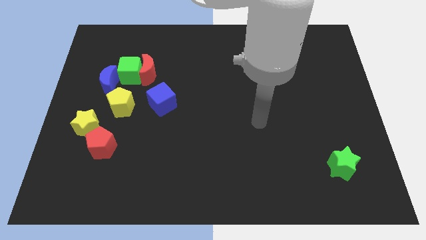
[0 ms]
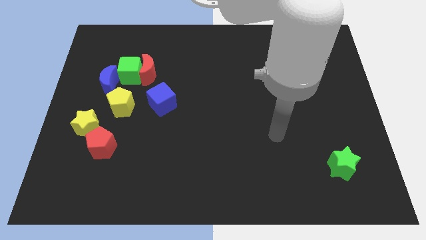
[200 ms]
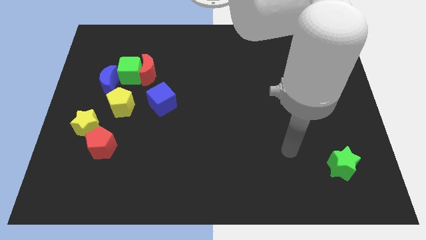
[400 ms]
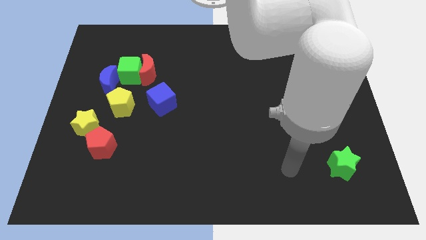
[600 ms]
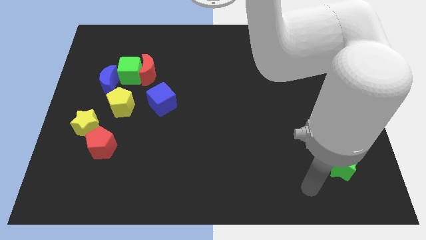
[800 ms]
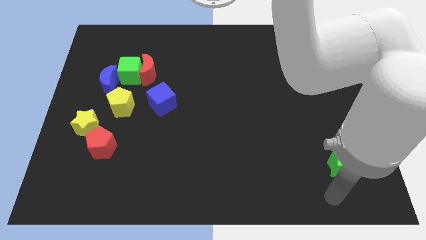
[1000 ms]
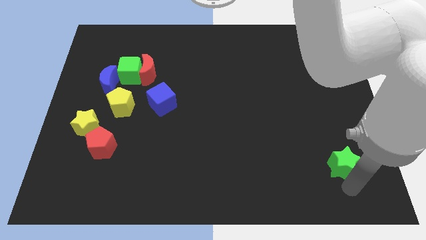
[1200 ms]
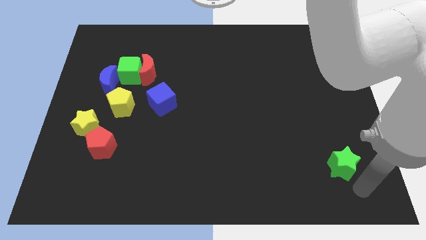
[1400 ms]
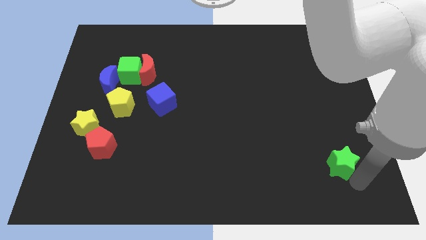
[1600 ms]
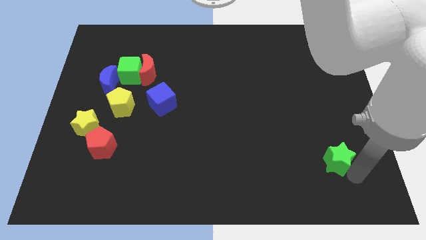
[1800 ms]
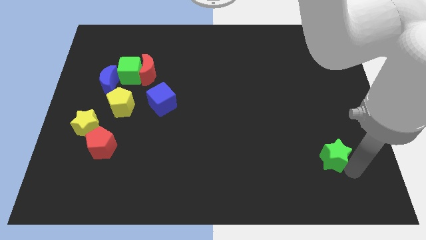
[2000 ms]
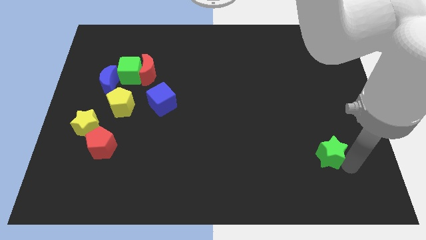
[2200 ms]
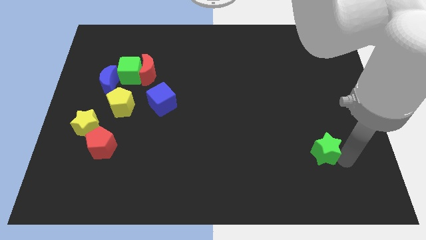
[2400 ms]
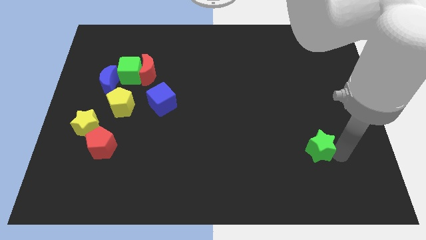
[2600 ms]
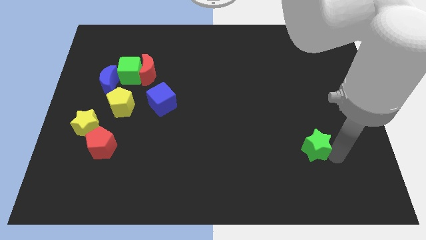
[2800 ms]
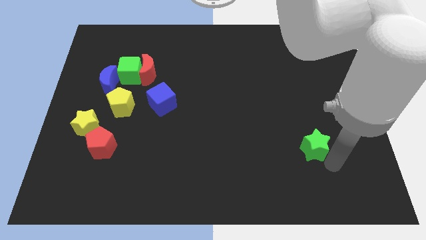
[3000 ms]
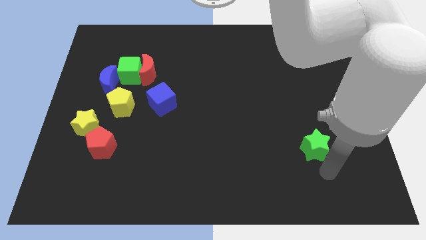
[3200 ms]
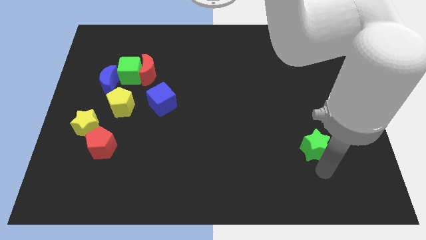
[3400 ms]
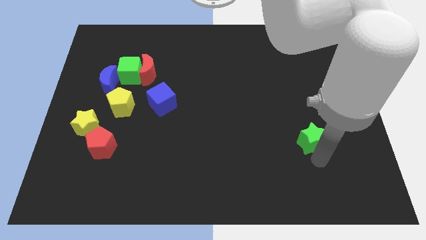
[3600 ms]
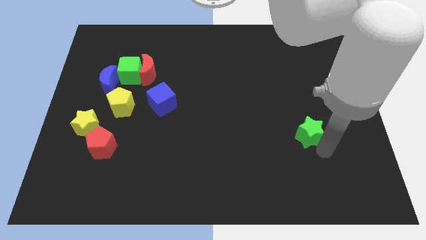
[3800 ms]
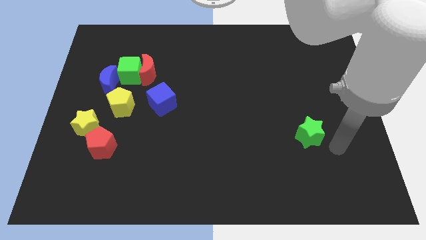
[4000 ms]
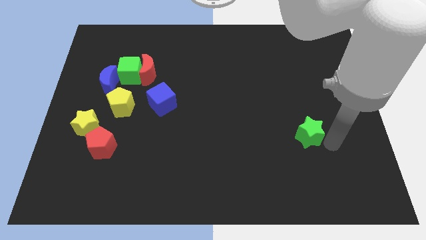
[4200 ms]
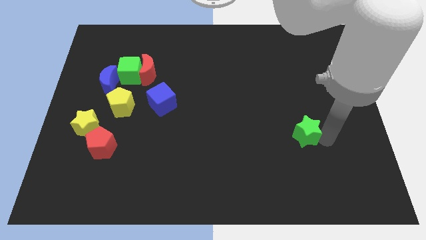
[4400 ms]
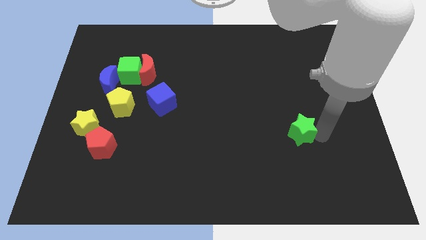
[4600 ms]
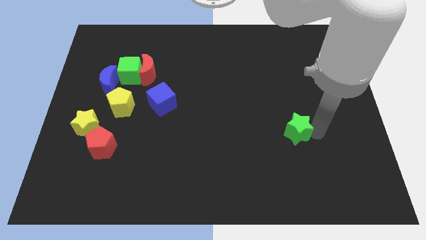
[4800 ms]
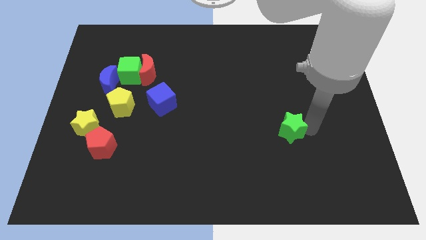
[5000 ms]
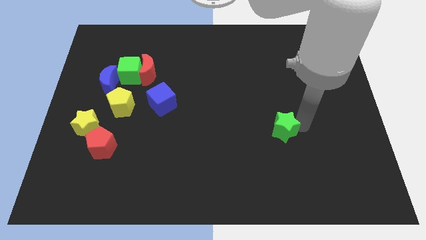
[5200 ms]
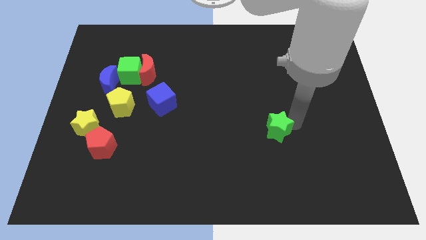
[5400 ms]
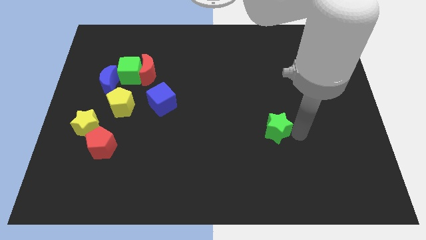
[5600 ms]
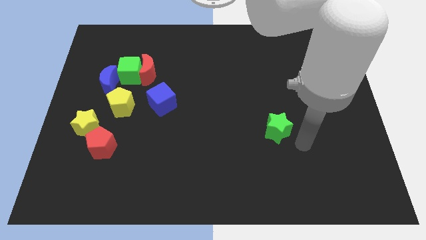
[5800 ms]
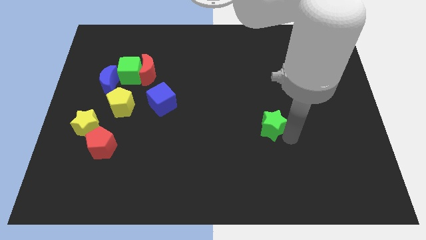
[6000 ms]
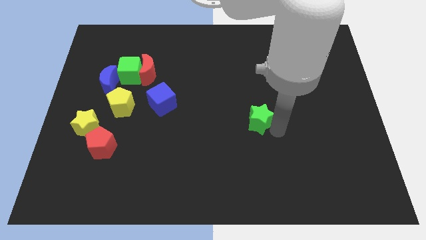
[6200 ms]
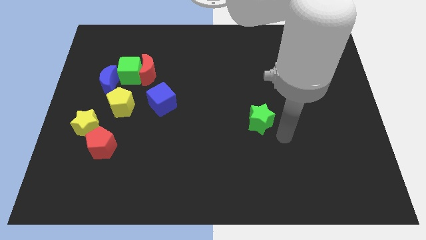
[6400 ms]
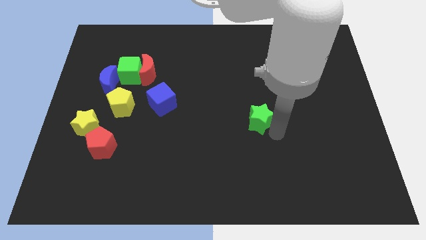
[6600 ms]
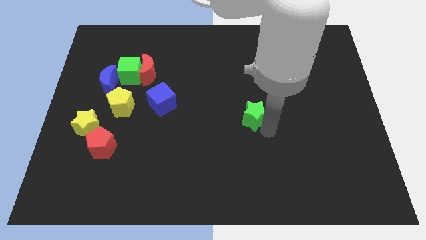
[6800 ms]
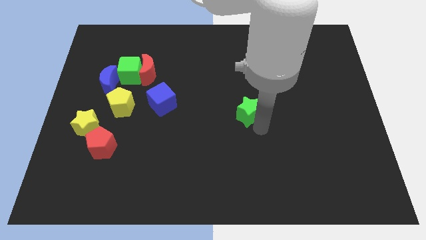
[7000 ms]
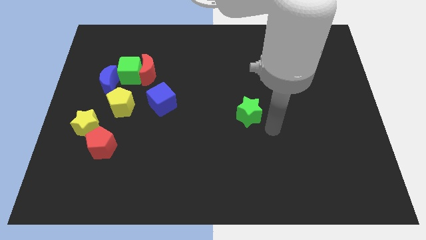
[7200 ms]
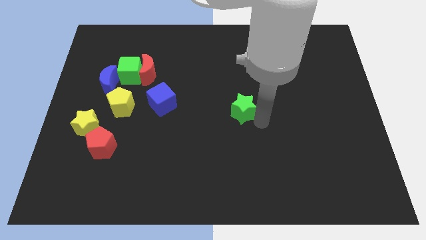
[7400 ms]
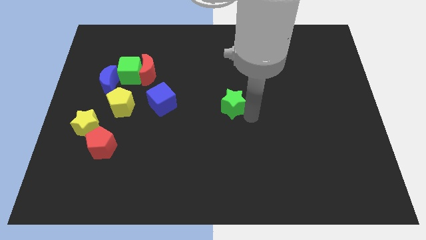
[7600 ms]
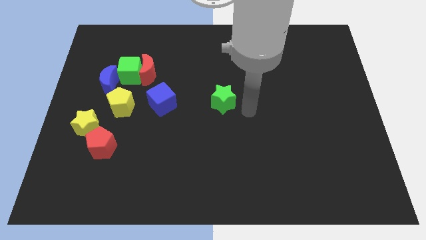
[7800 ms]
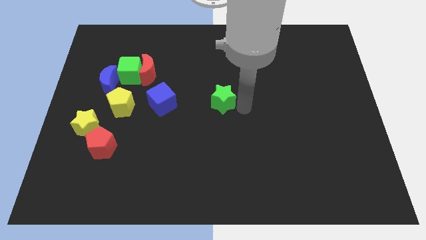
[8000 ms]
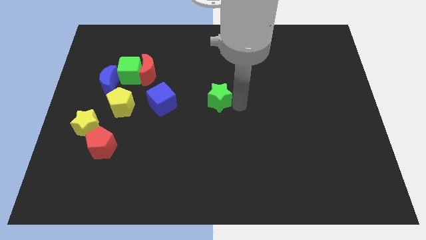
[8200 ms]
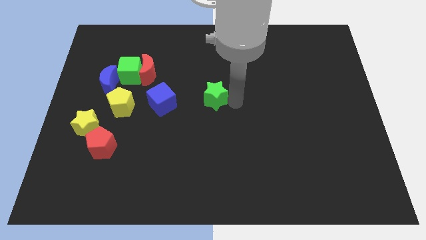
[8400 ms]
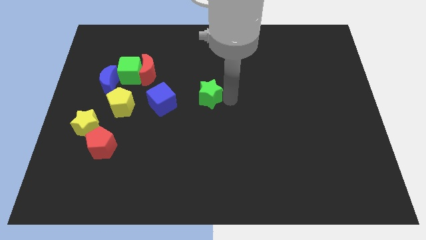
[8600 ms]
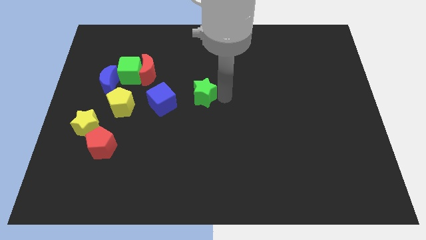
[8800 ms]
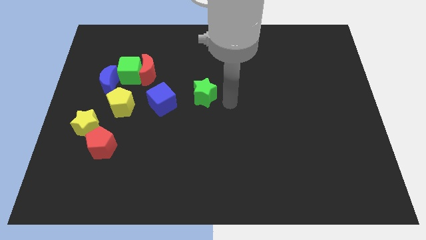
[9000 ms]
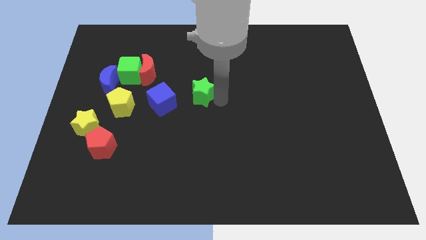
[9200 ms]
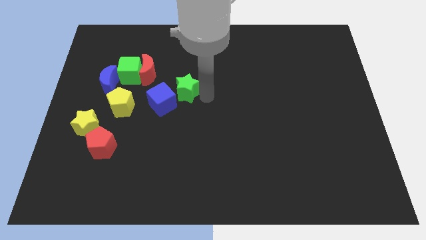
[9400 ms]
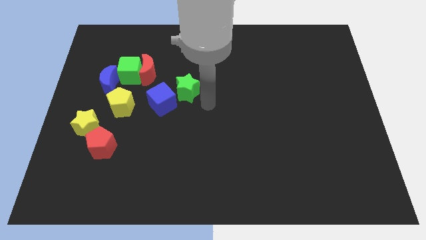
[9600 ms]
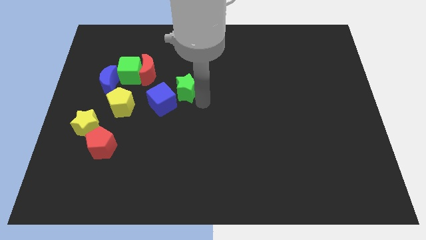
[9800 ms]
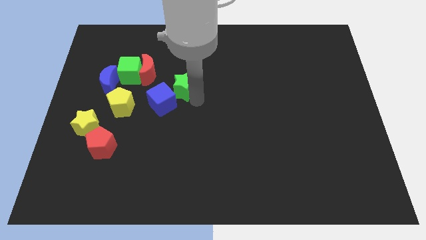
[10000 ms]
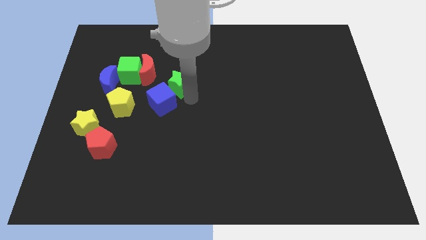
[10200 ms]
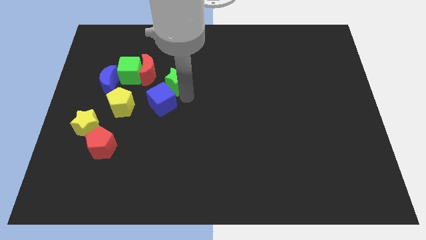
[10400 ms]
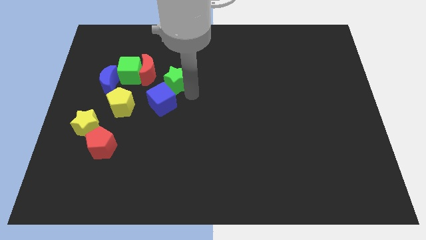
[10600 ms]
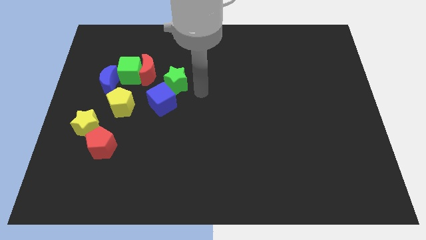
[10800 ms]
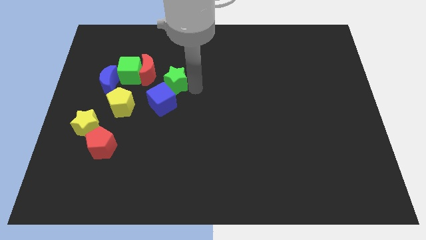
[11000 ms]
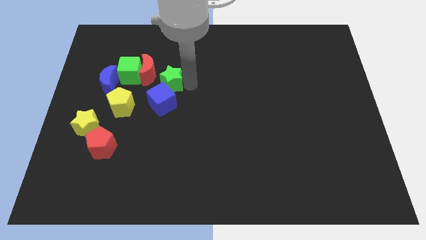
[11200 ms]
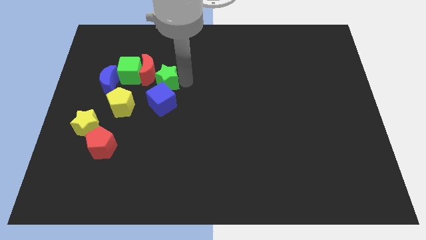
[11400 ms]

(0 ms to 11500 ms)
push the green star close to the red moon
